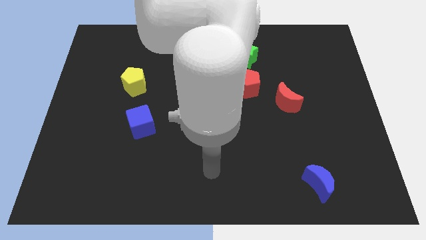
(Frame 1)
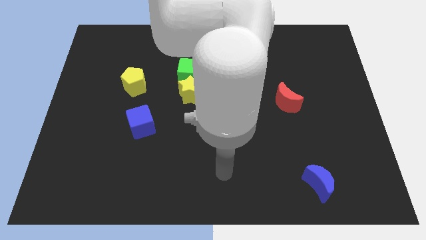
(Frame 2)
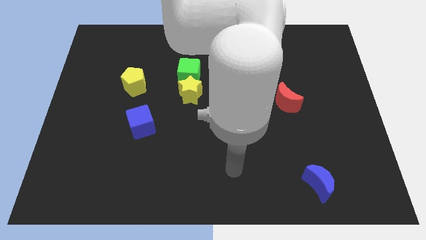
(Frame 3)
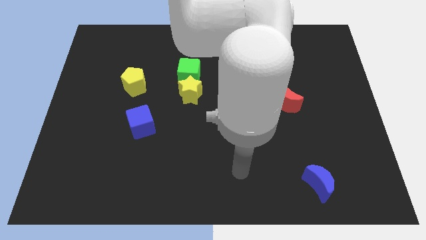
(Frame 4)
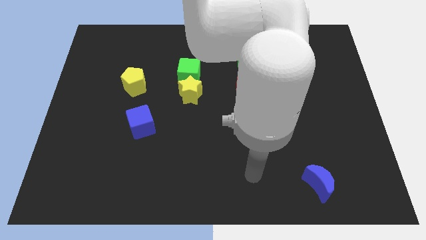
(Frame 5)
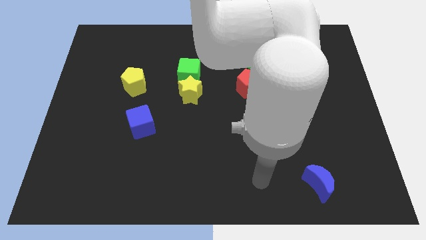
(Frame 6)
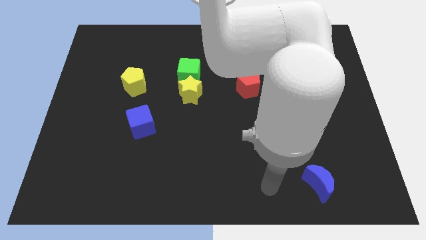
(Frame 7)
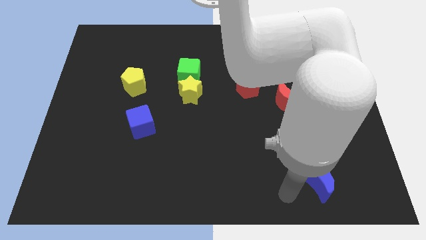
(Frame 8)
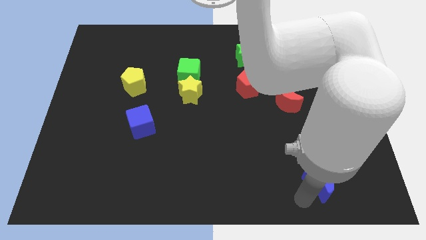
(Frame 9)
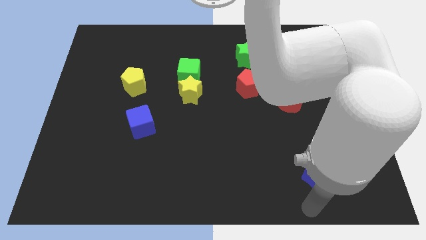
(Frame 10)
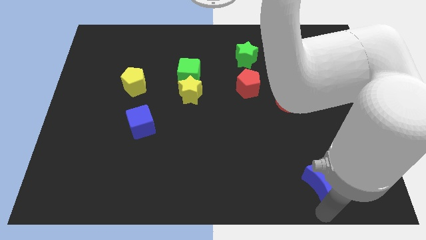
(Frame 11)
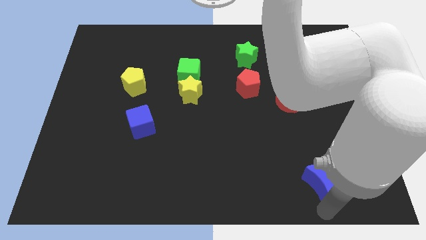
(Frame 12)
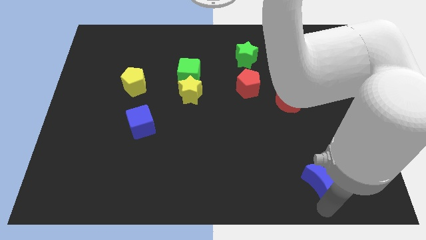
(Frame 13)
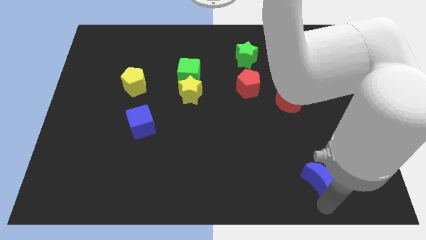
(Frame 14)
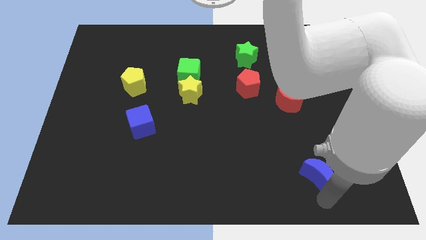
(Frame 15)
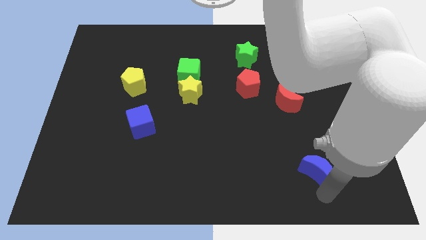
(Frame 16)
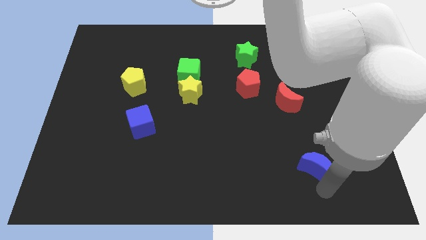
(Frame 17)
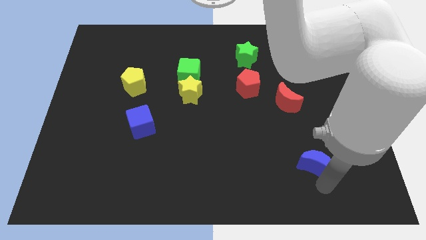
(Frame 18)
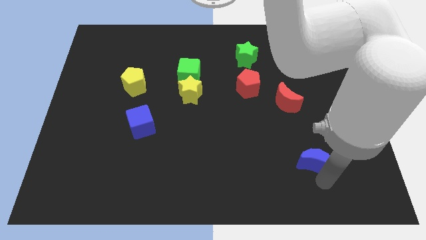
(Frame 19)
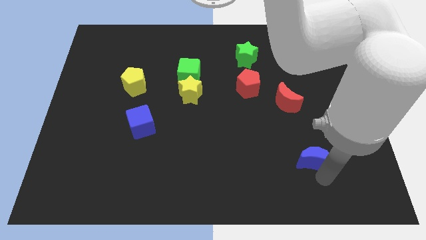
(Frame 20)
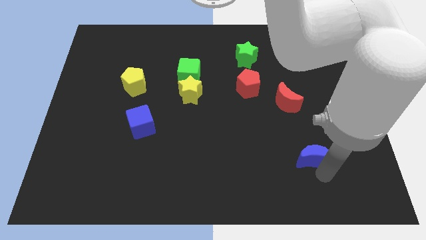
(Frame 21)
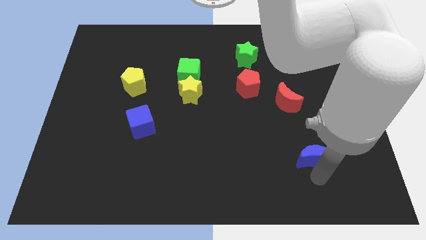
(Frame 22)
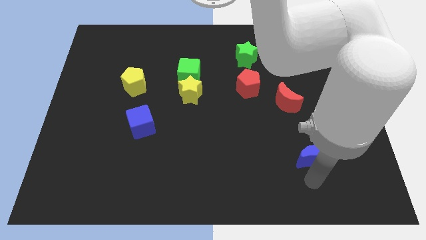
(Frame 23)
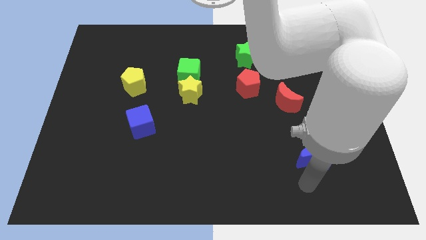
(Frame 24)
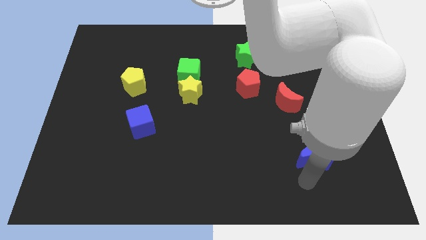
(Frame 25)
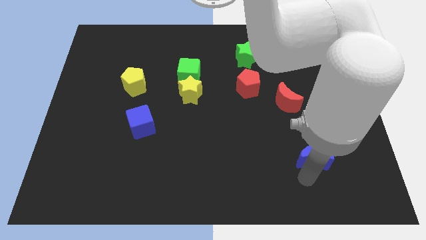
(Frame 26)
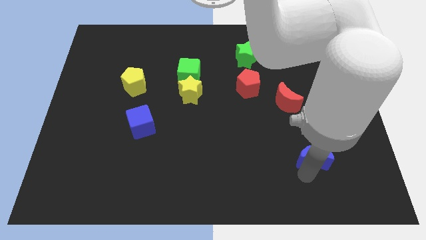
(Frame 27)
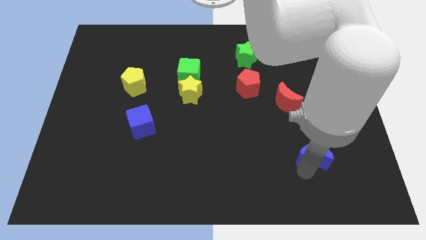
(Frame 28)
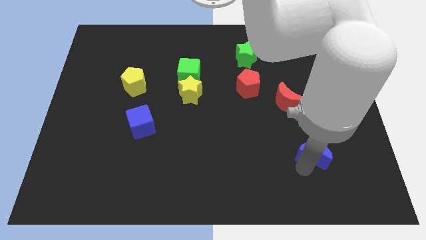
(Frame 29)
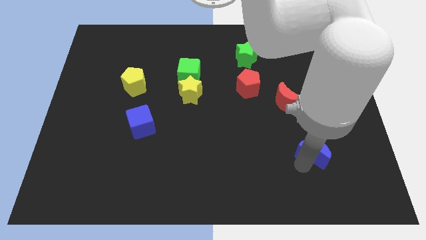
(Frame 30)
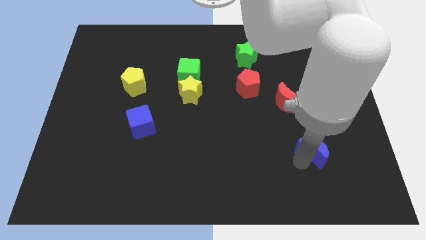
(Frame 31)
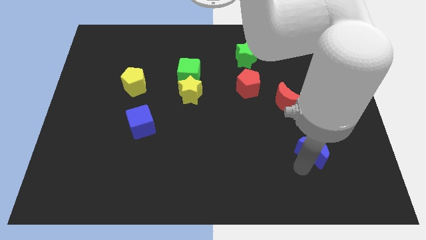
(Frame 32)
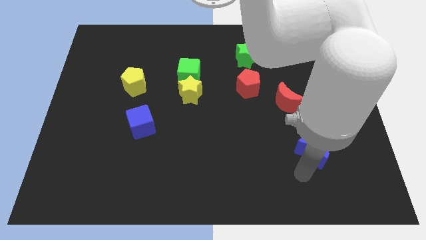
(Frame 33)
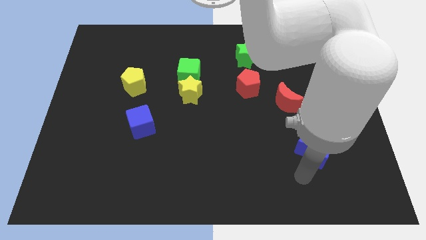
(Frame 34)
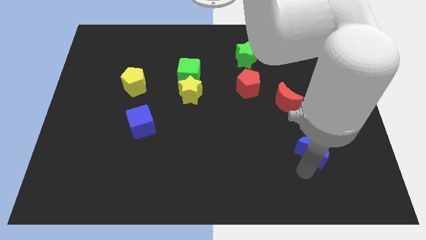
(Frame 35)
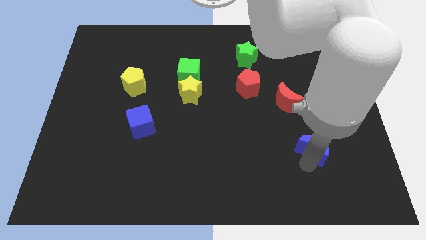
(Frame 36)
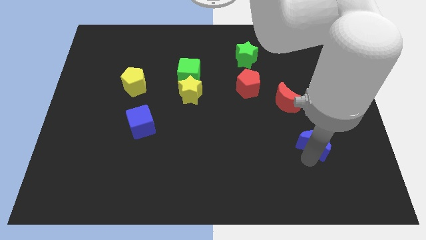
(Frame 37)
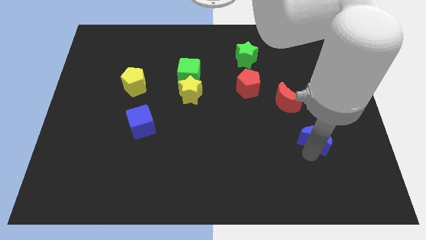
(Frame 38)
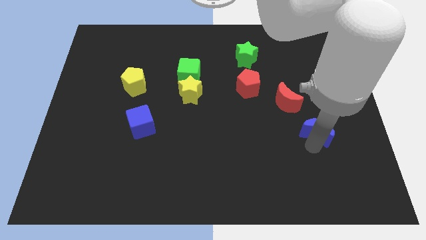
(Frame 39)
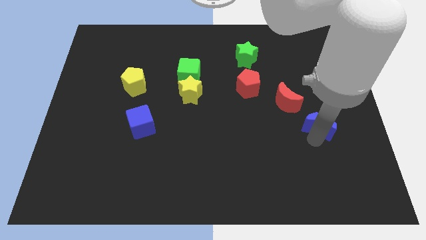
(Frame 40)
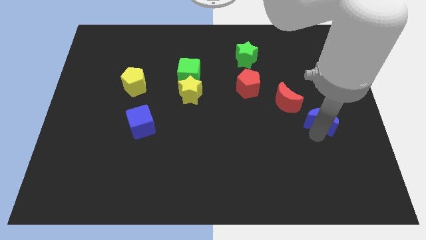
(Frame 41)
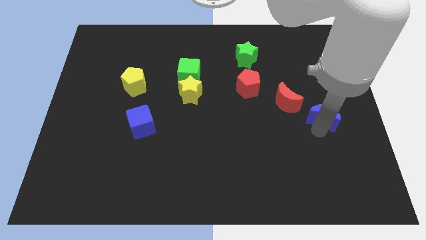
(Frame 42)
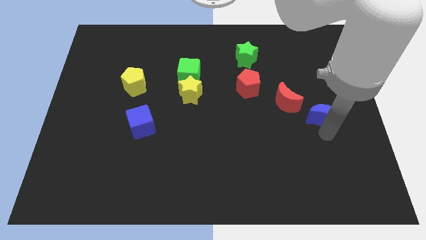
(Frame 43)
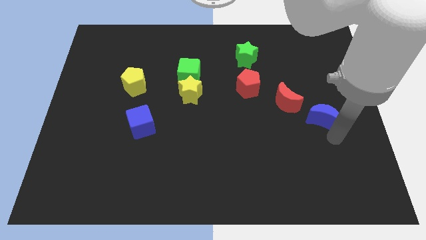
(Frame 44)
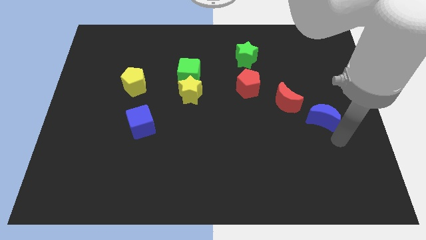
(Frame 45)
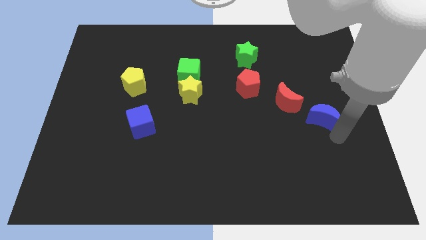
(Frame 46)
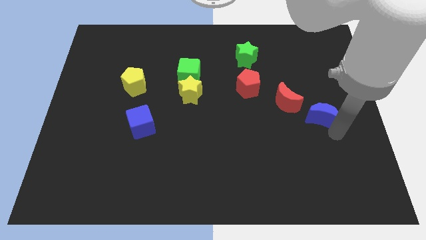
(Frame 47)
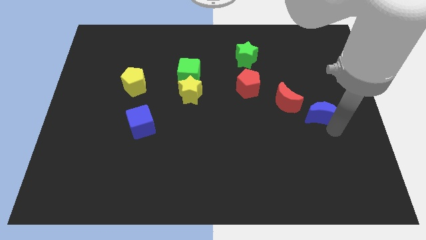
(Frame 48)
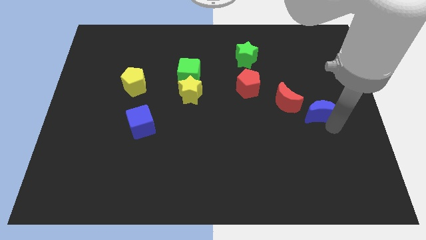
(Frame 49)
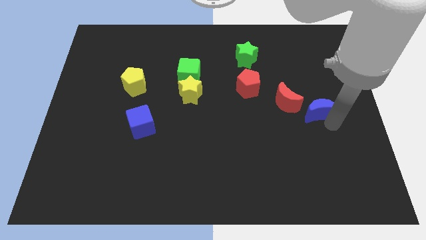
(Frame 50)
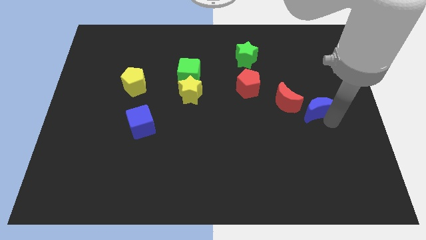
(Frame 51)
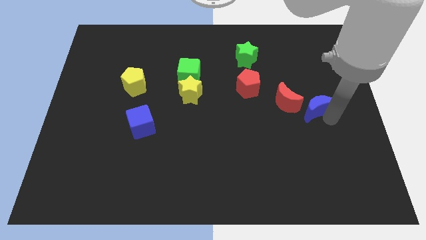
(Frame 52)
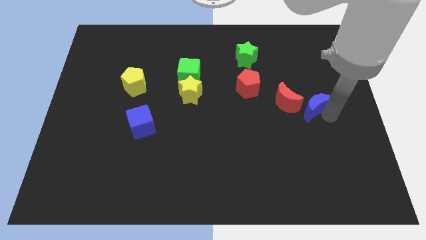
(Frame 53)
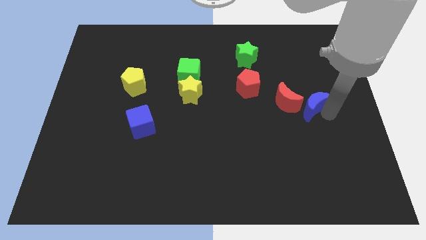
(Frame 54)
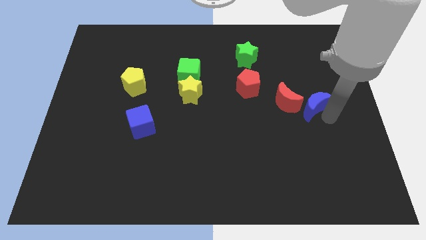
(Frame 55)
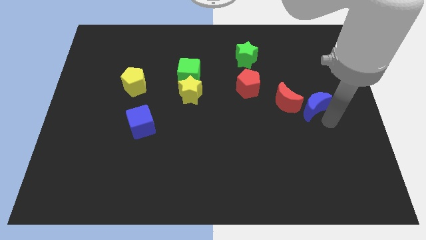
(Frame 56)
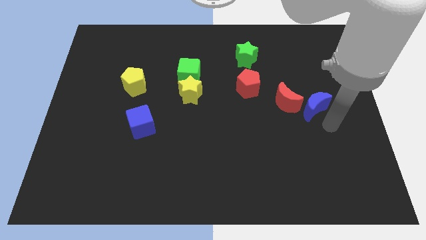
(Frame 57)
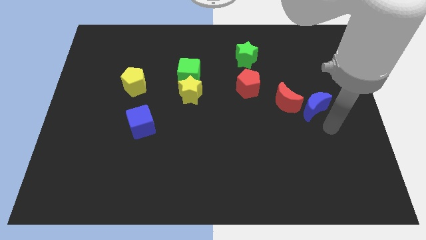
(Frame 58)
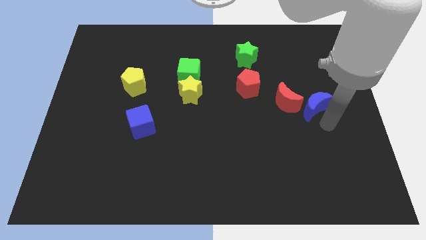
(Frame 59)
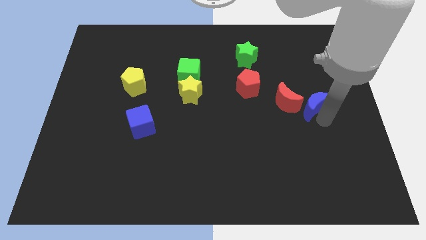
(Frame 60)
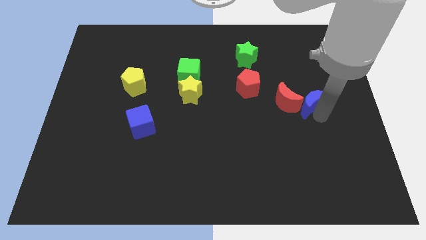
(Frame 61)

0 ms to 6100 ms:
move the blue moon up

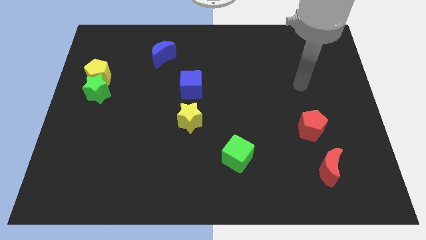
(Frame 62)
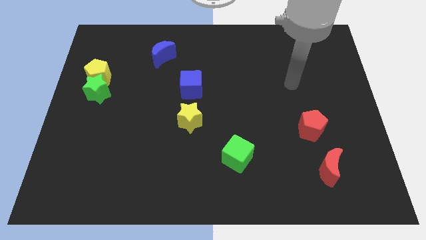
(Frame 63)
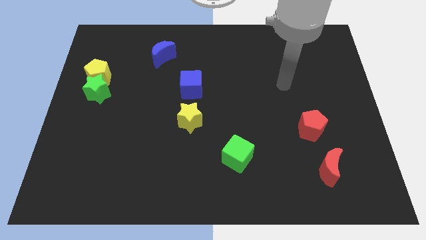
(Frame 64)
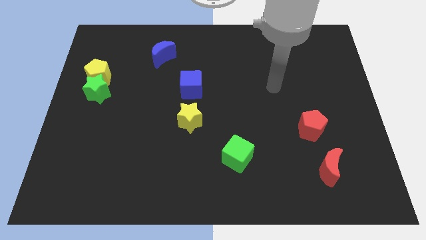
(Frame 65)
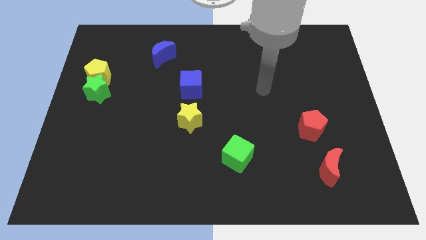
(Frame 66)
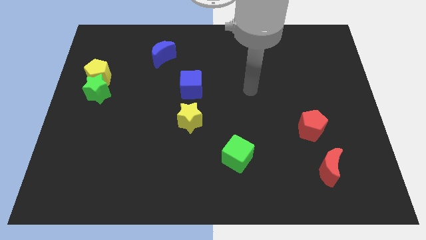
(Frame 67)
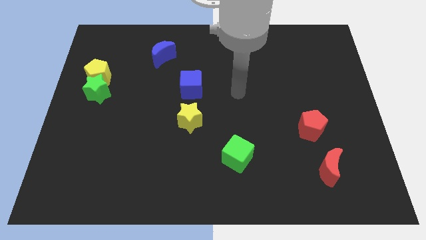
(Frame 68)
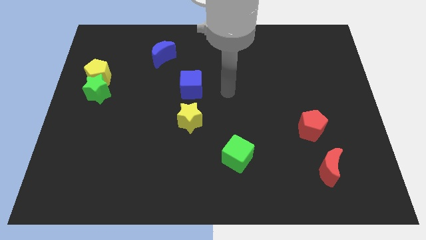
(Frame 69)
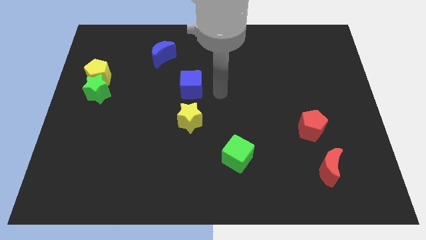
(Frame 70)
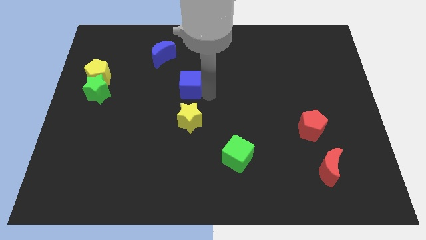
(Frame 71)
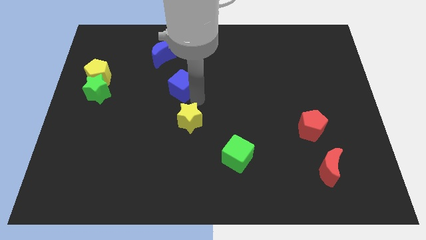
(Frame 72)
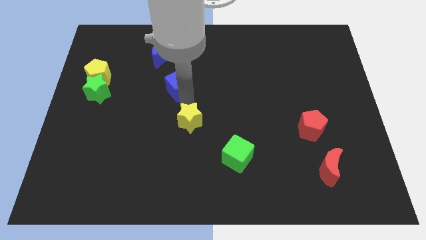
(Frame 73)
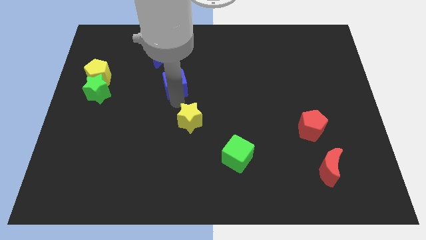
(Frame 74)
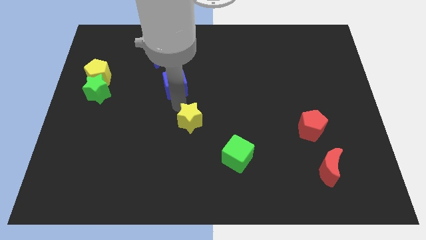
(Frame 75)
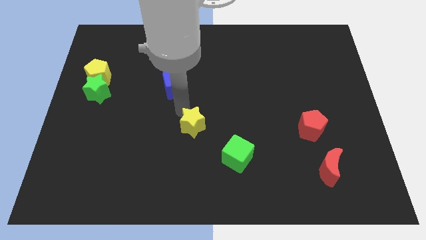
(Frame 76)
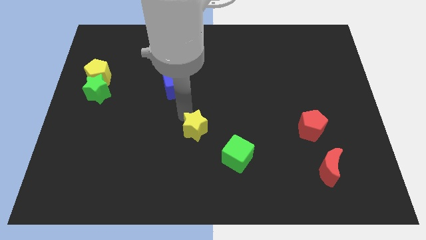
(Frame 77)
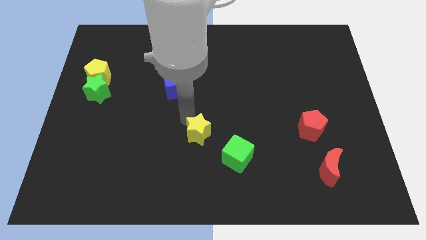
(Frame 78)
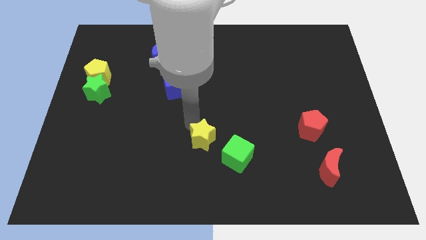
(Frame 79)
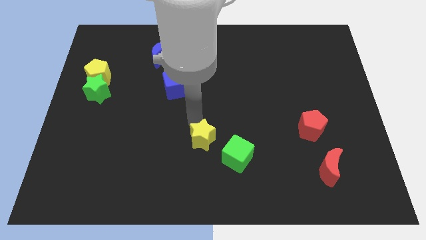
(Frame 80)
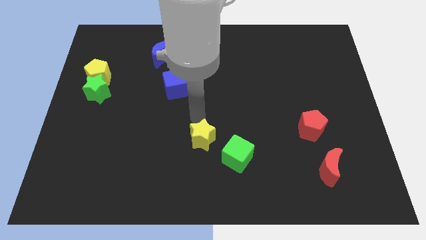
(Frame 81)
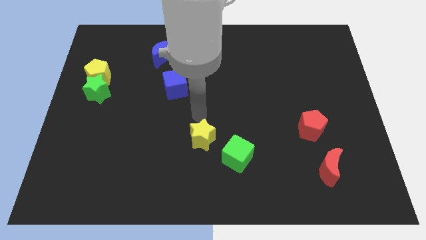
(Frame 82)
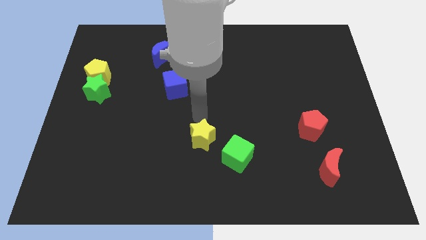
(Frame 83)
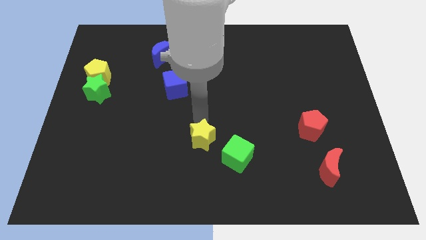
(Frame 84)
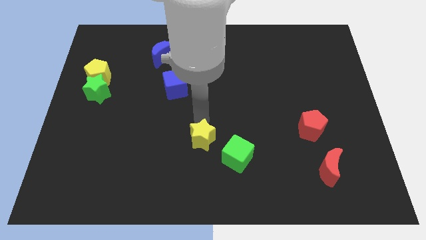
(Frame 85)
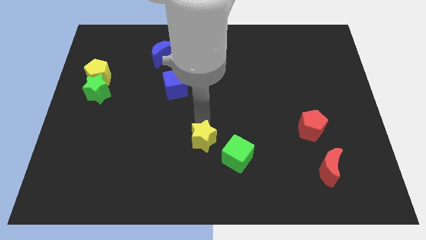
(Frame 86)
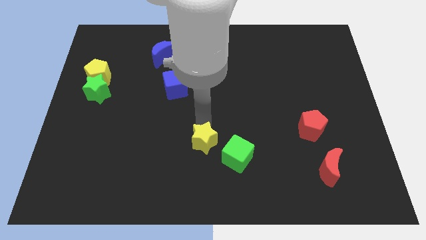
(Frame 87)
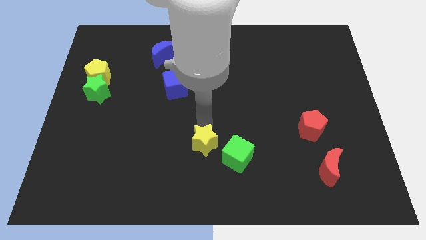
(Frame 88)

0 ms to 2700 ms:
push the yellow star a little downwards and to the right diagonally
